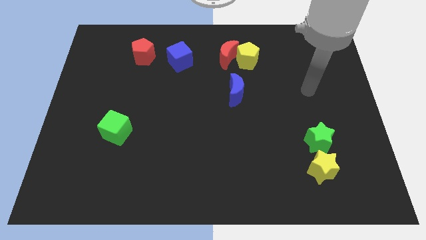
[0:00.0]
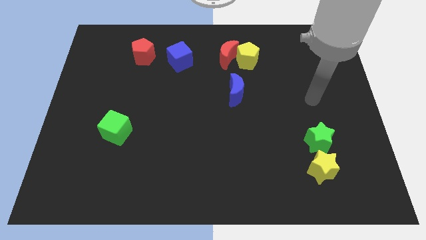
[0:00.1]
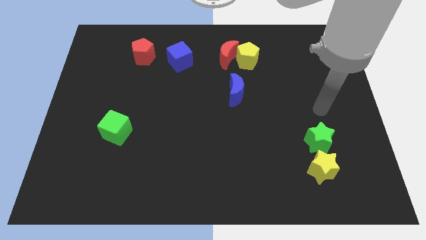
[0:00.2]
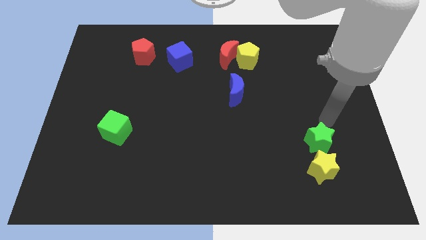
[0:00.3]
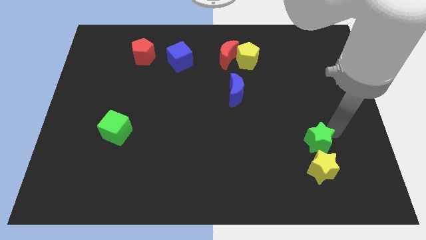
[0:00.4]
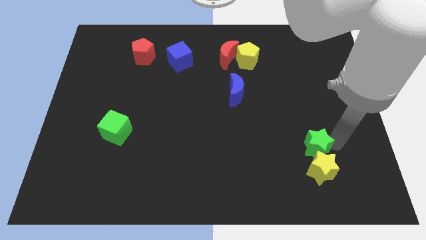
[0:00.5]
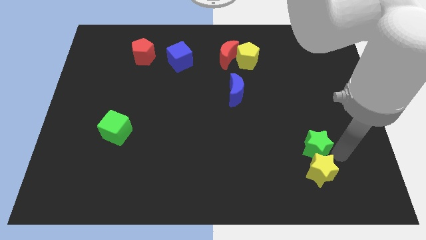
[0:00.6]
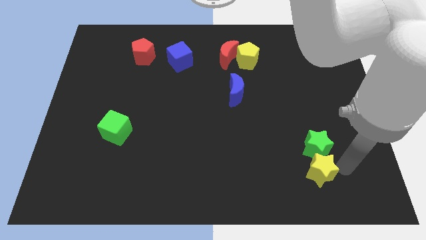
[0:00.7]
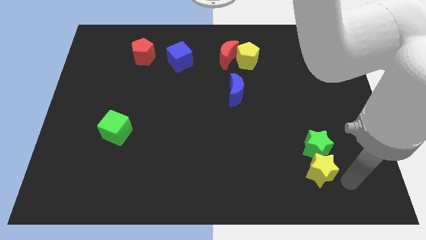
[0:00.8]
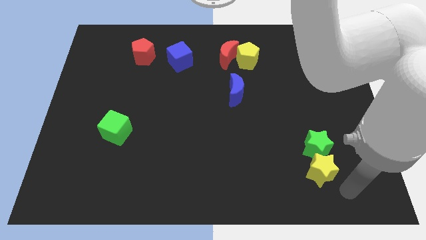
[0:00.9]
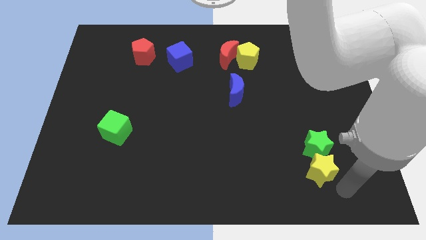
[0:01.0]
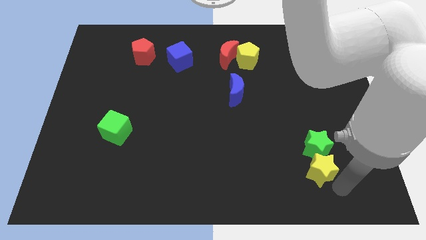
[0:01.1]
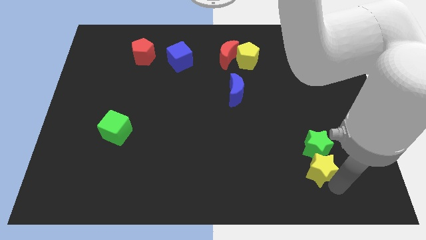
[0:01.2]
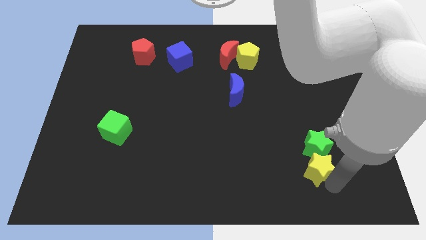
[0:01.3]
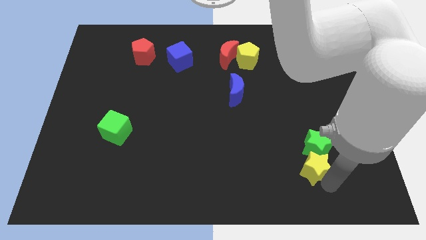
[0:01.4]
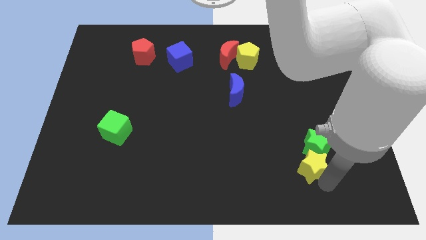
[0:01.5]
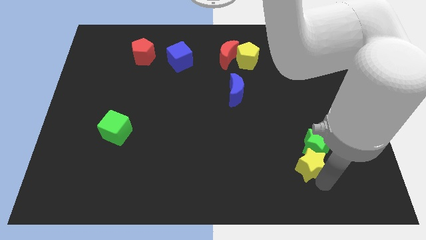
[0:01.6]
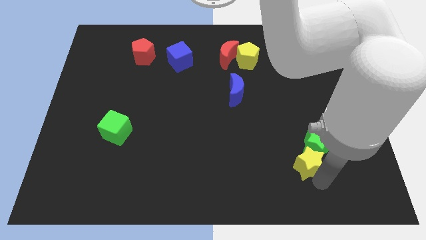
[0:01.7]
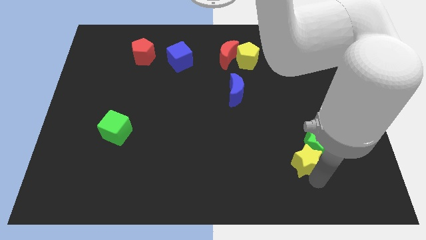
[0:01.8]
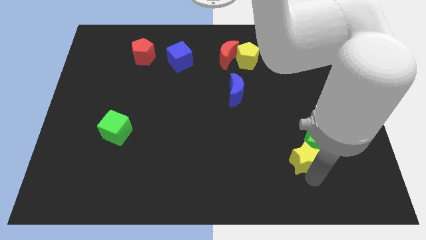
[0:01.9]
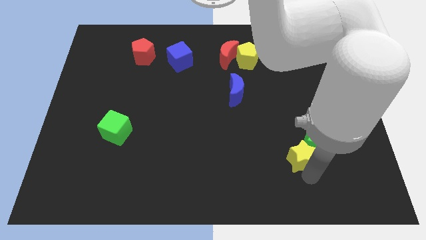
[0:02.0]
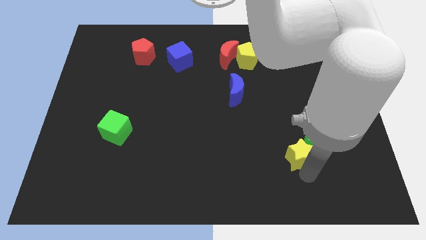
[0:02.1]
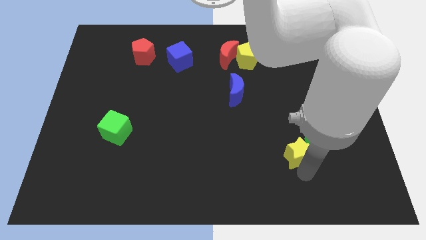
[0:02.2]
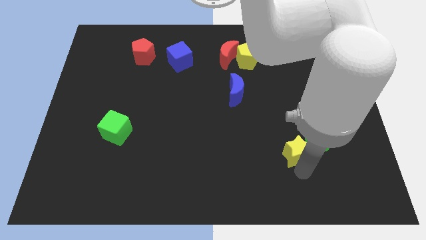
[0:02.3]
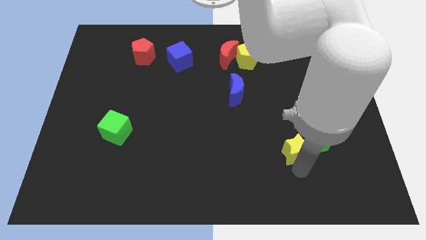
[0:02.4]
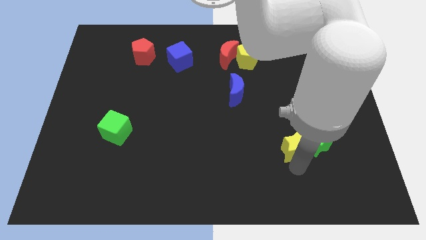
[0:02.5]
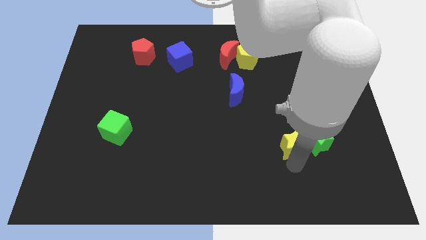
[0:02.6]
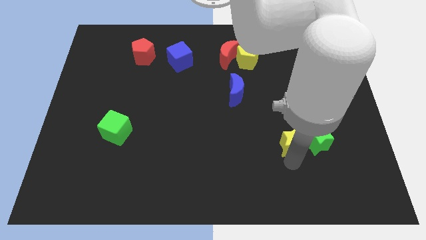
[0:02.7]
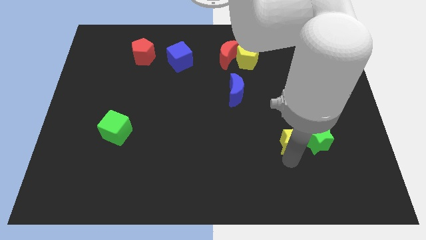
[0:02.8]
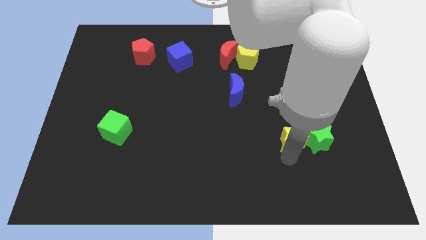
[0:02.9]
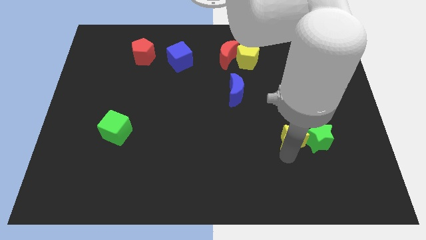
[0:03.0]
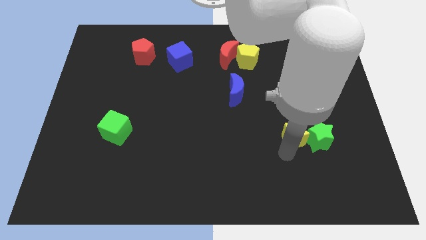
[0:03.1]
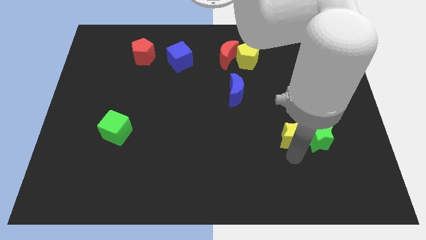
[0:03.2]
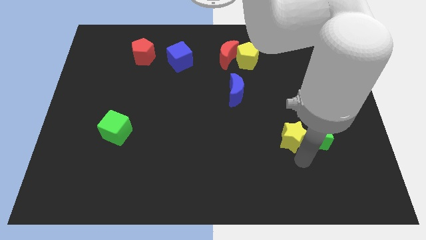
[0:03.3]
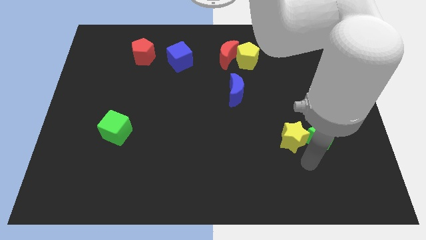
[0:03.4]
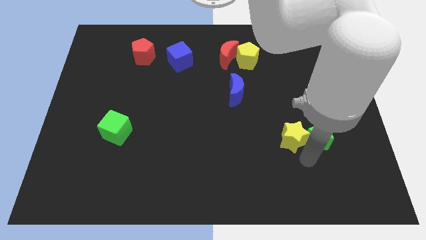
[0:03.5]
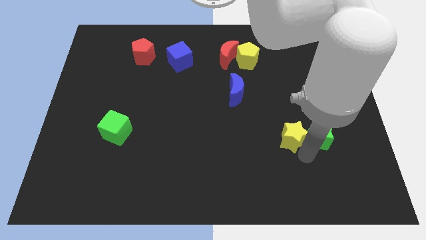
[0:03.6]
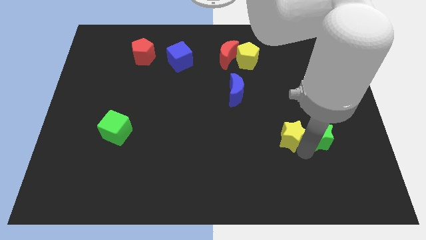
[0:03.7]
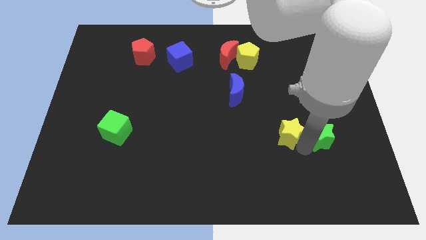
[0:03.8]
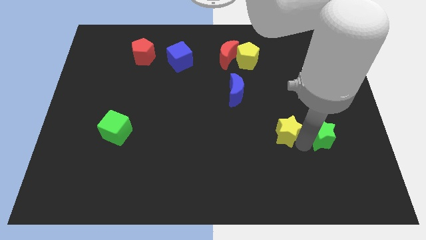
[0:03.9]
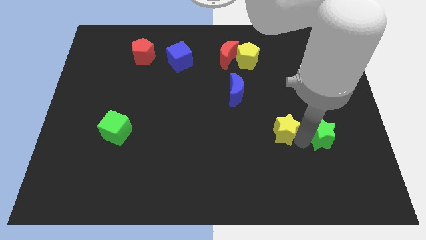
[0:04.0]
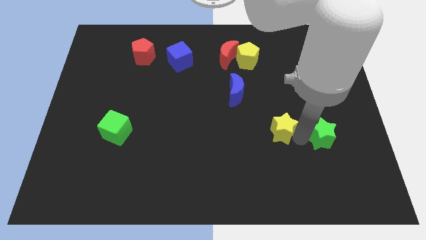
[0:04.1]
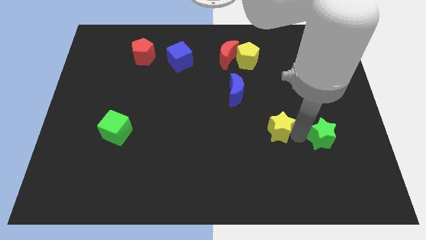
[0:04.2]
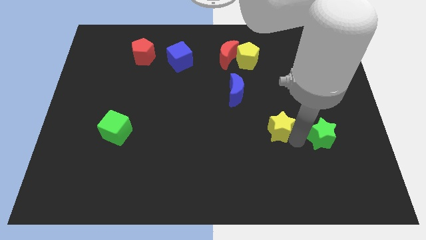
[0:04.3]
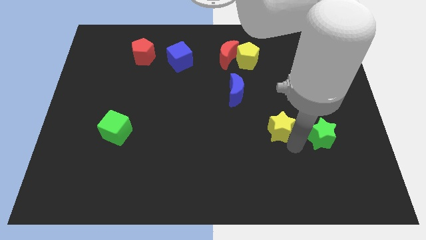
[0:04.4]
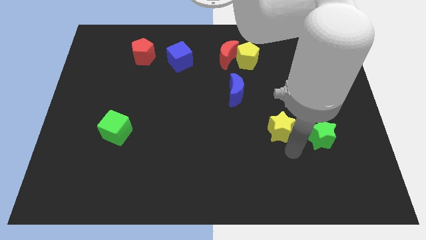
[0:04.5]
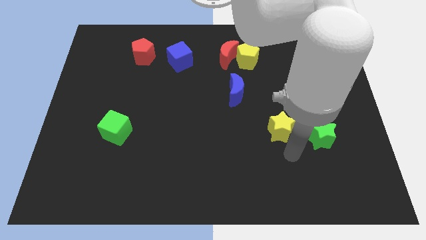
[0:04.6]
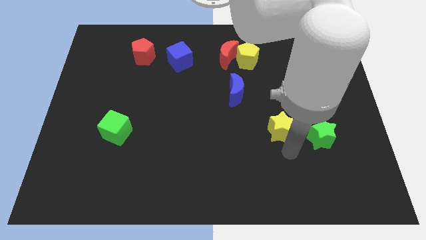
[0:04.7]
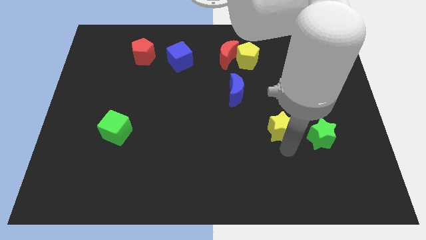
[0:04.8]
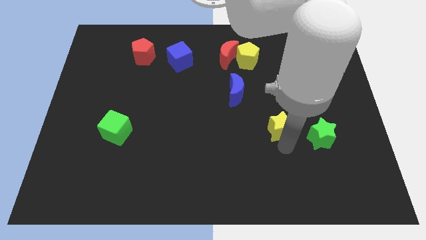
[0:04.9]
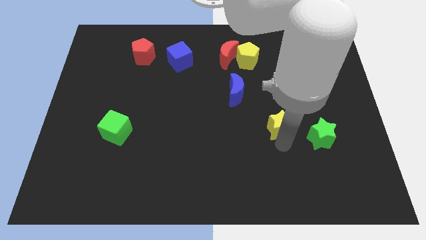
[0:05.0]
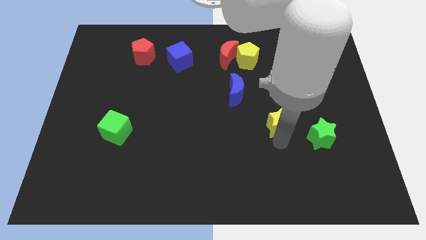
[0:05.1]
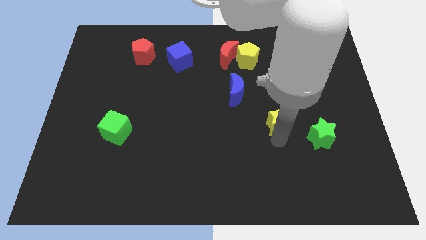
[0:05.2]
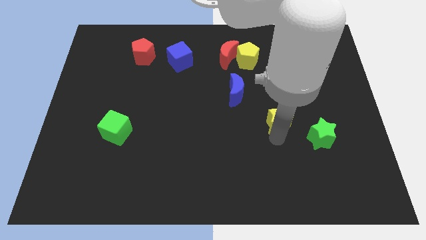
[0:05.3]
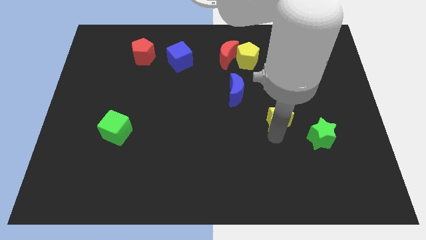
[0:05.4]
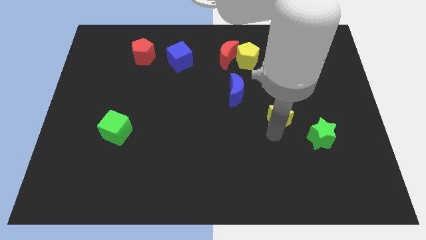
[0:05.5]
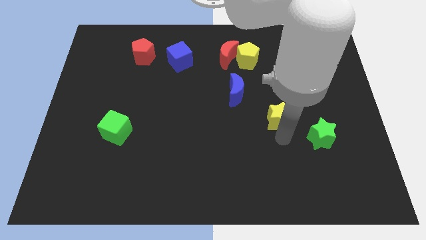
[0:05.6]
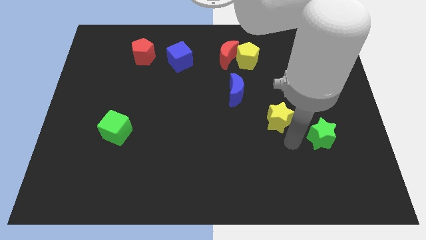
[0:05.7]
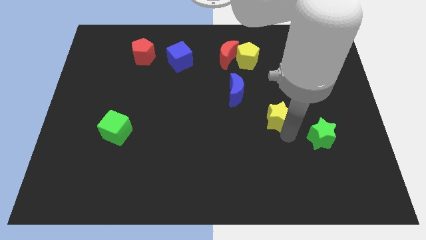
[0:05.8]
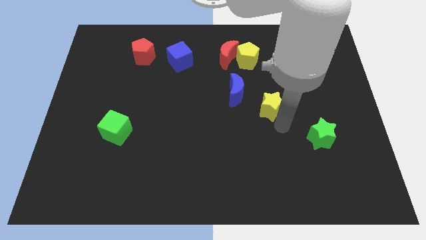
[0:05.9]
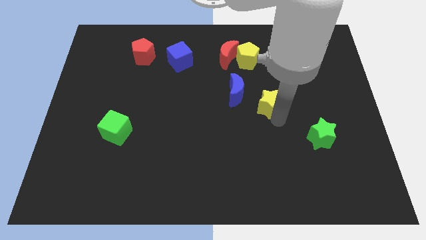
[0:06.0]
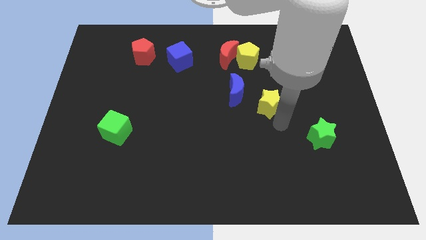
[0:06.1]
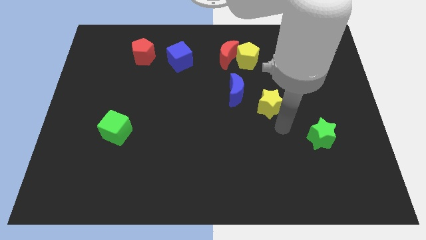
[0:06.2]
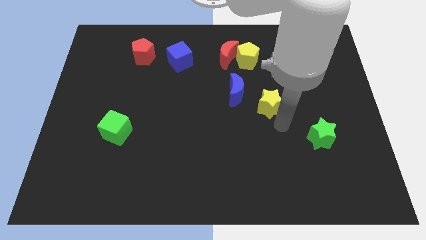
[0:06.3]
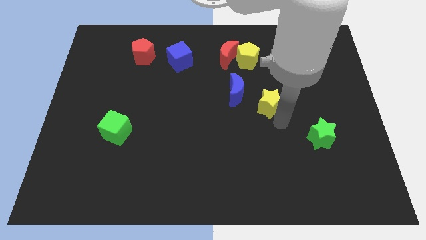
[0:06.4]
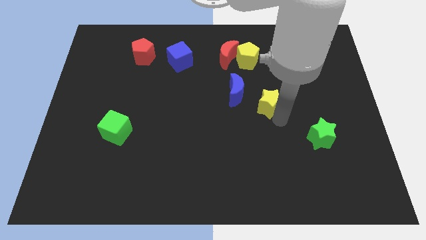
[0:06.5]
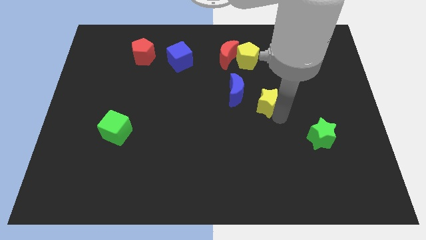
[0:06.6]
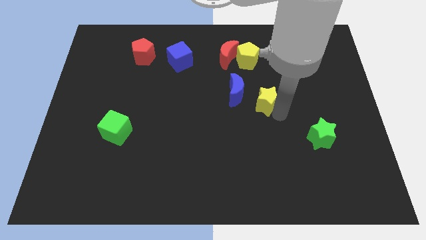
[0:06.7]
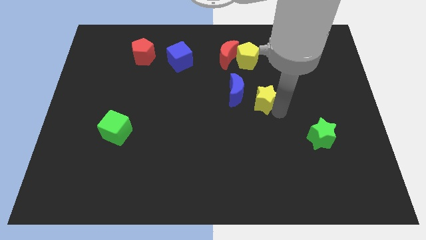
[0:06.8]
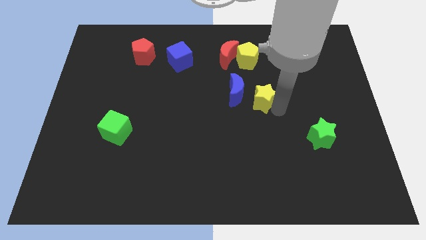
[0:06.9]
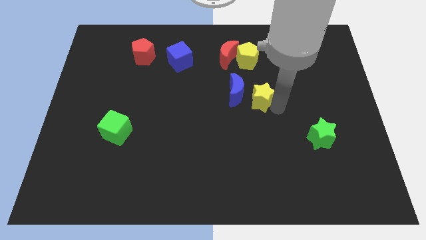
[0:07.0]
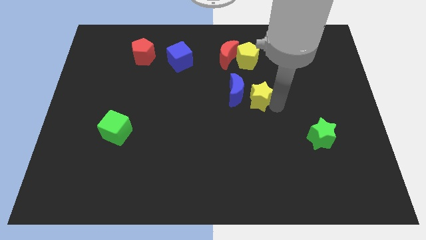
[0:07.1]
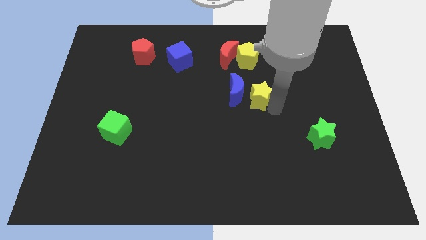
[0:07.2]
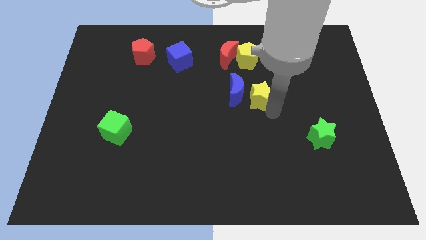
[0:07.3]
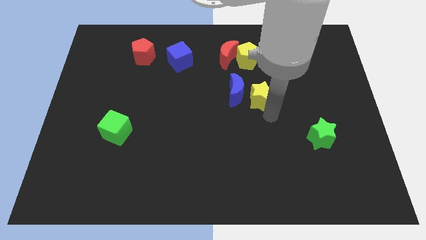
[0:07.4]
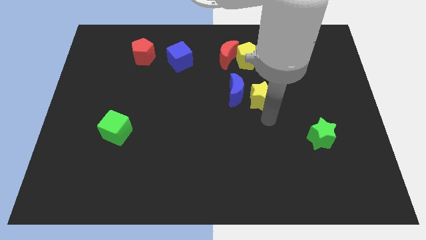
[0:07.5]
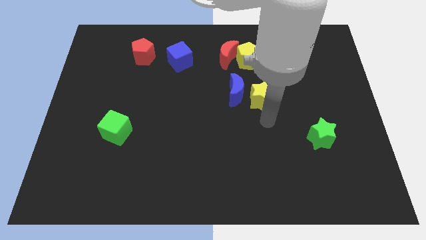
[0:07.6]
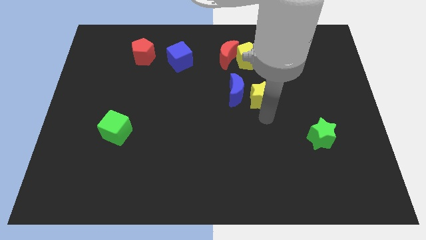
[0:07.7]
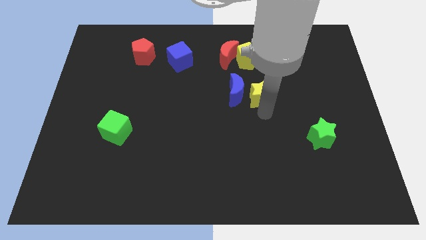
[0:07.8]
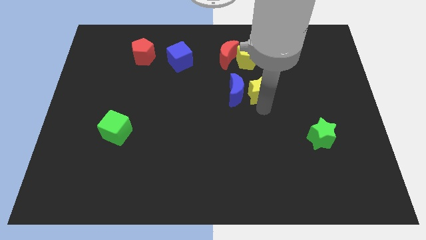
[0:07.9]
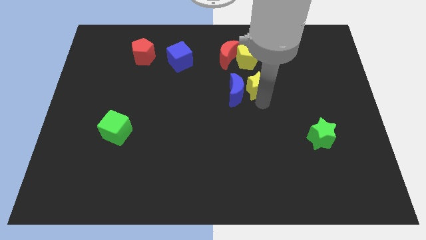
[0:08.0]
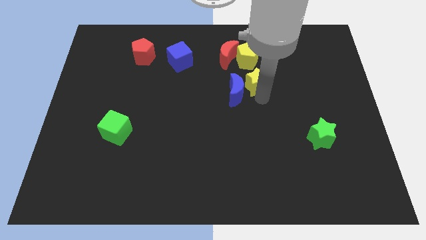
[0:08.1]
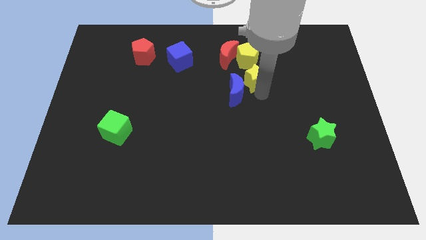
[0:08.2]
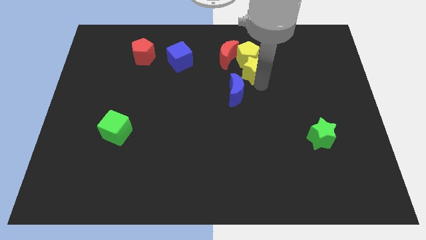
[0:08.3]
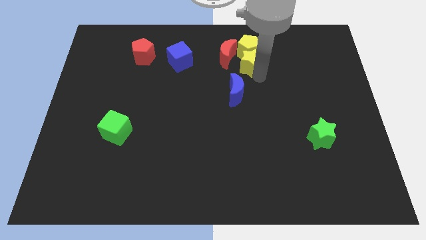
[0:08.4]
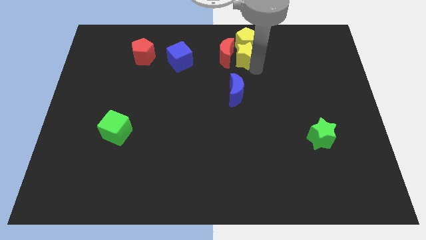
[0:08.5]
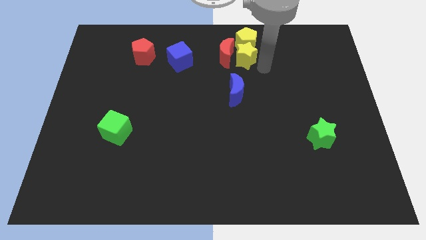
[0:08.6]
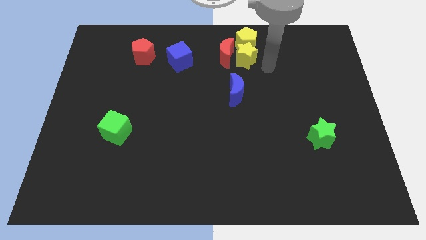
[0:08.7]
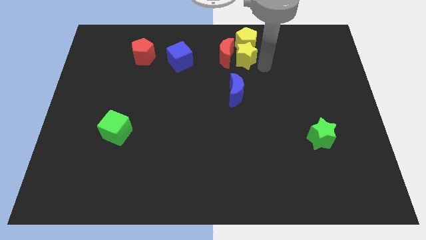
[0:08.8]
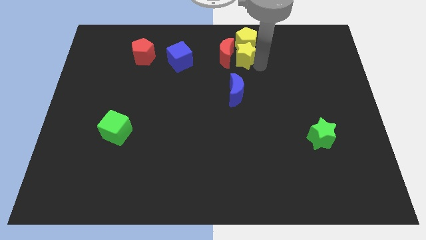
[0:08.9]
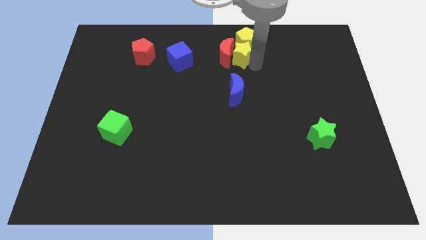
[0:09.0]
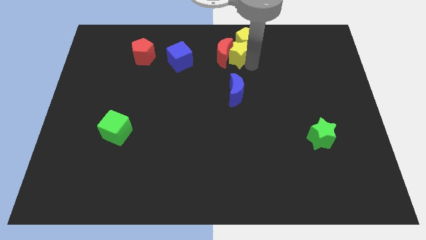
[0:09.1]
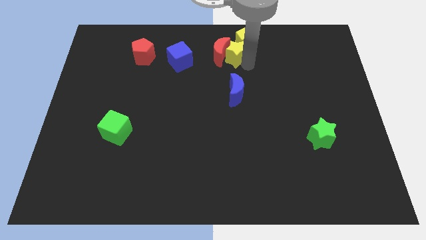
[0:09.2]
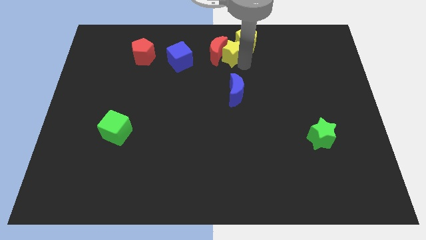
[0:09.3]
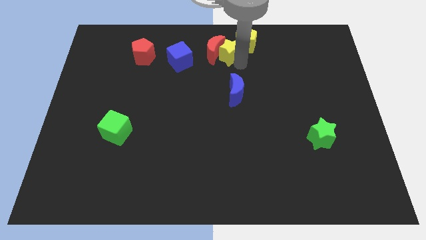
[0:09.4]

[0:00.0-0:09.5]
slide the yellow star just left of the yellow pentagon
